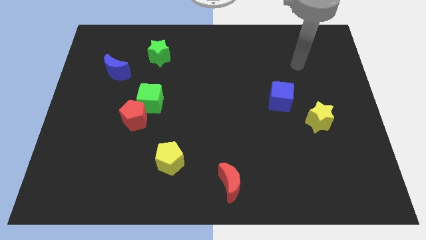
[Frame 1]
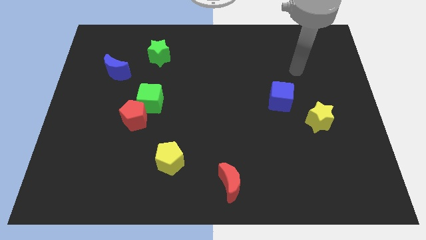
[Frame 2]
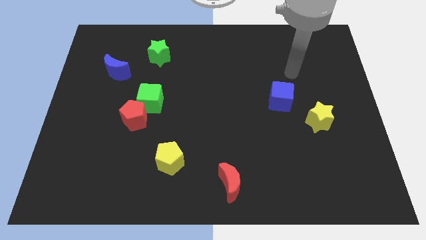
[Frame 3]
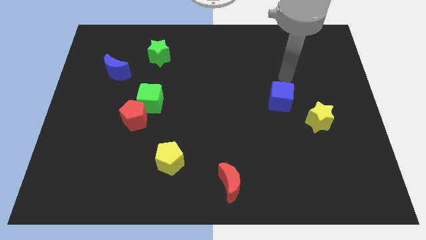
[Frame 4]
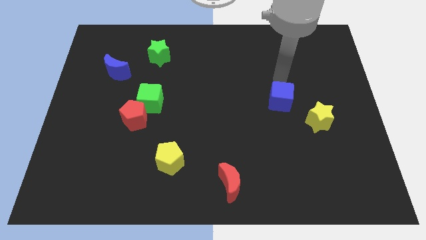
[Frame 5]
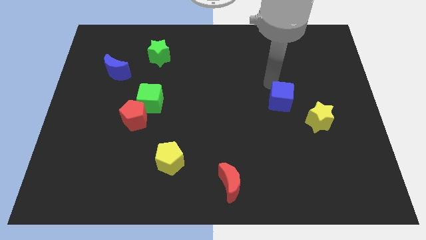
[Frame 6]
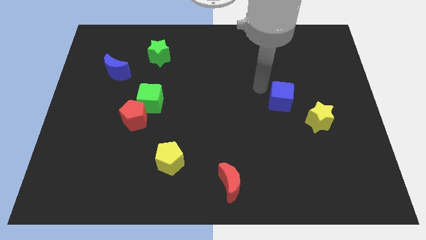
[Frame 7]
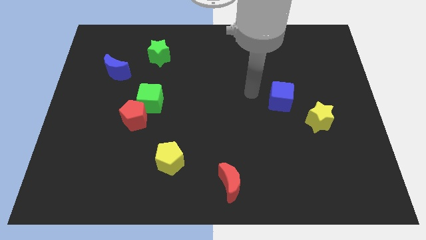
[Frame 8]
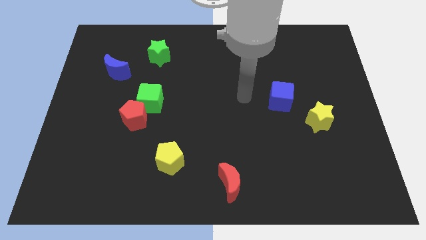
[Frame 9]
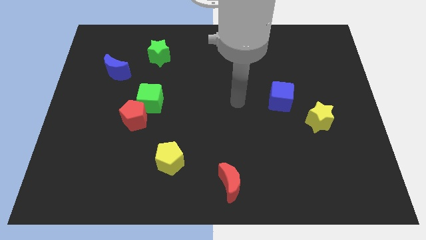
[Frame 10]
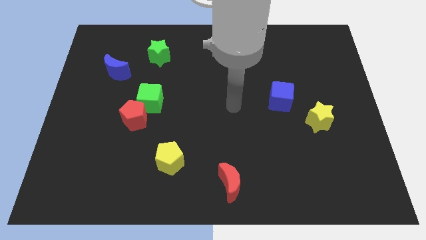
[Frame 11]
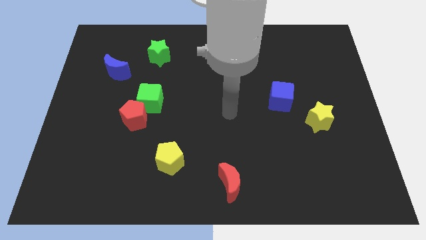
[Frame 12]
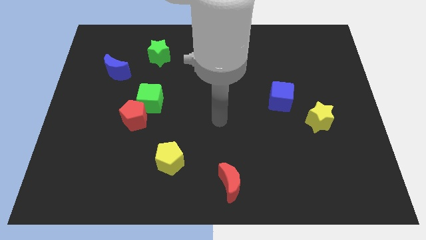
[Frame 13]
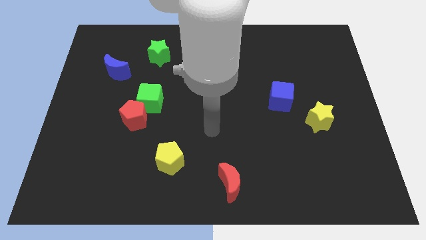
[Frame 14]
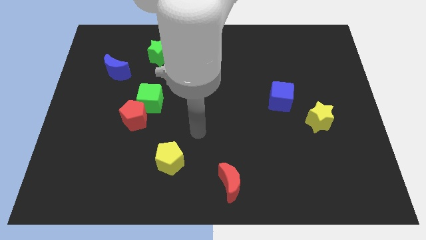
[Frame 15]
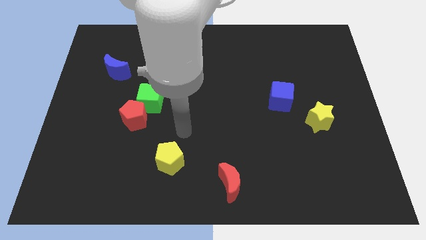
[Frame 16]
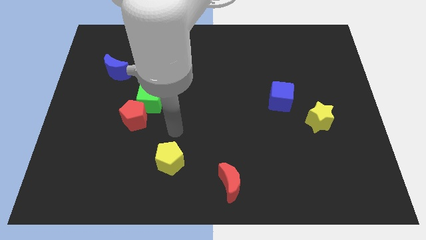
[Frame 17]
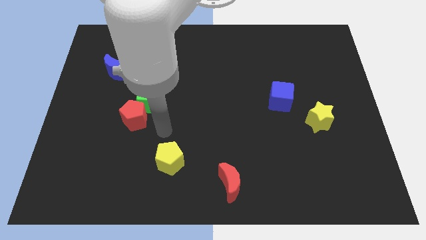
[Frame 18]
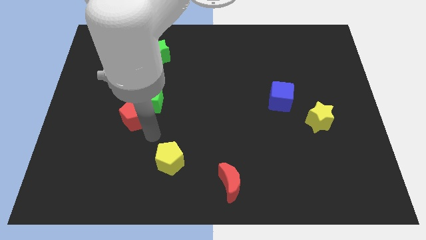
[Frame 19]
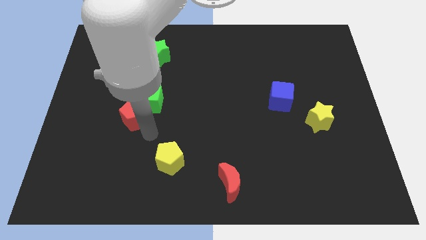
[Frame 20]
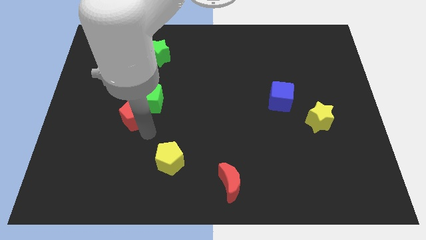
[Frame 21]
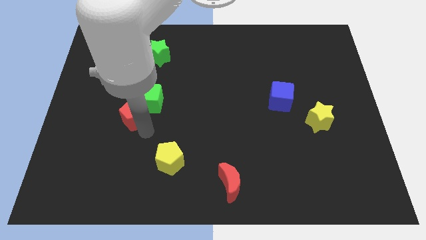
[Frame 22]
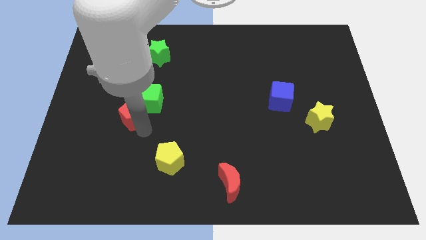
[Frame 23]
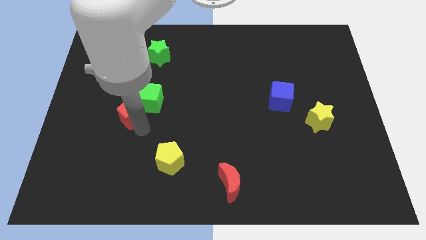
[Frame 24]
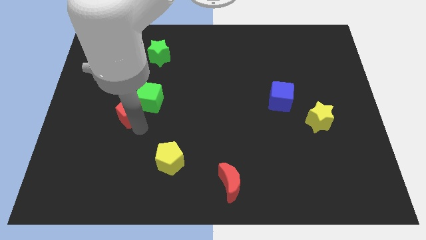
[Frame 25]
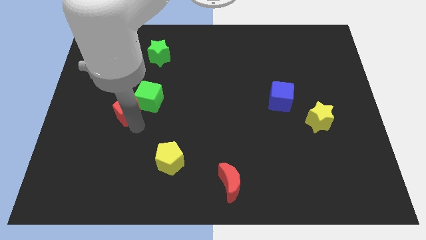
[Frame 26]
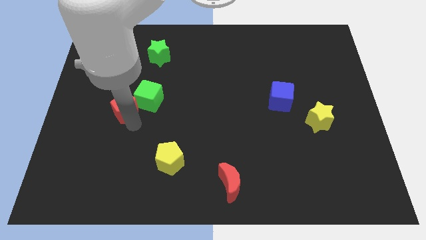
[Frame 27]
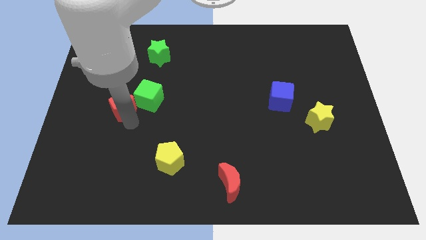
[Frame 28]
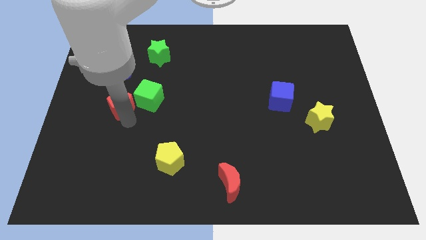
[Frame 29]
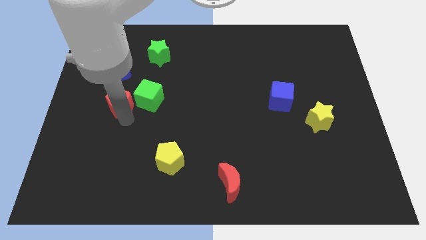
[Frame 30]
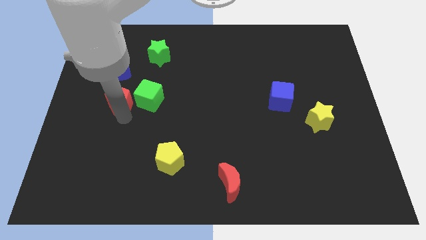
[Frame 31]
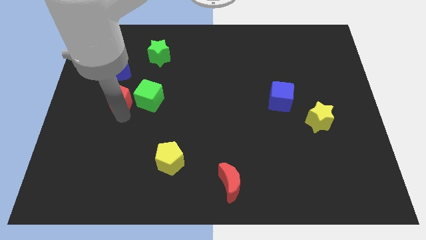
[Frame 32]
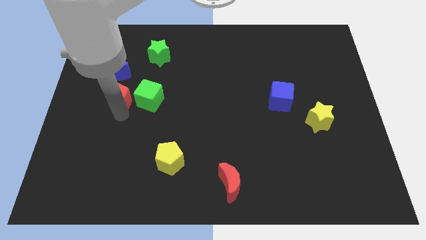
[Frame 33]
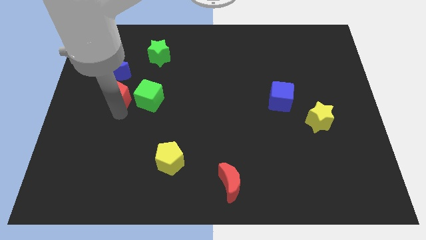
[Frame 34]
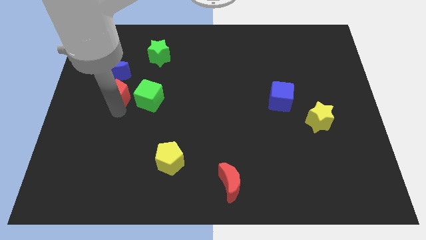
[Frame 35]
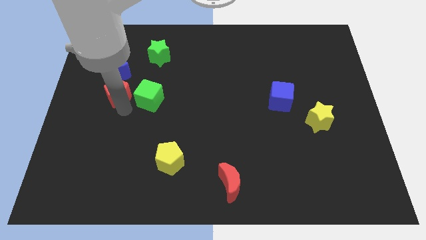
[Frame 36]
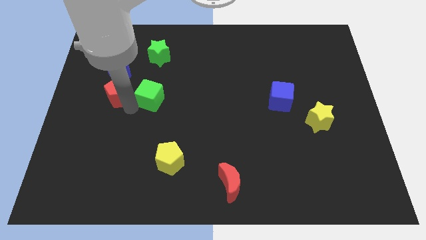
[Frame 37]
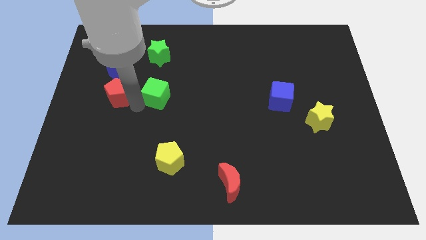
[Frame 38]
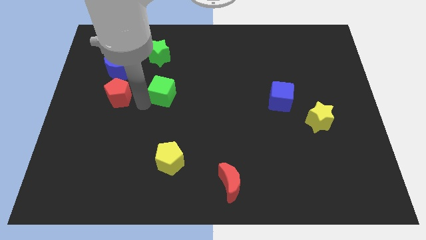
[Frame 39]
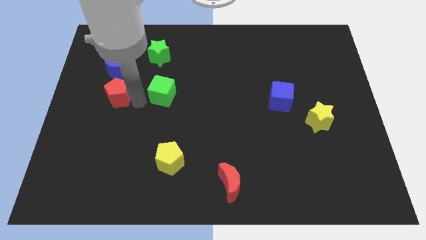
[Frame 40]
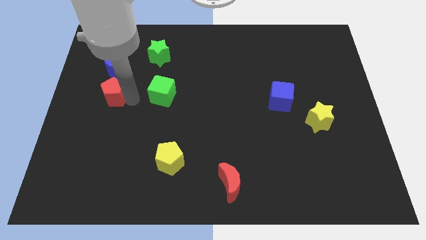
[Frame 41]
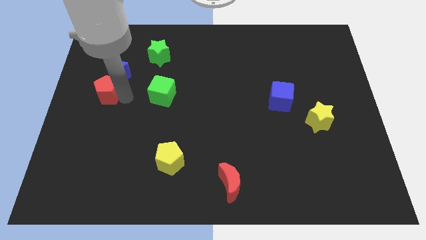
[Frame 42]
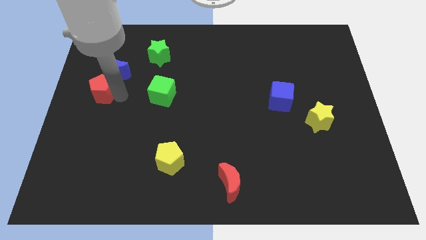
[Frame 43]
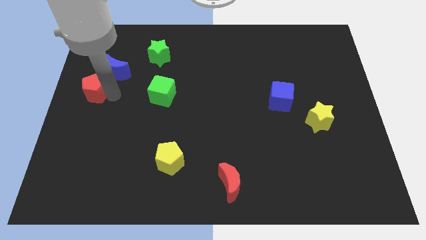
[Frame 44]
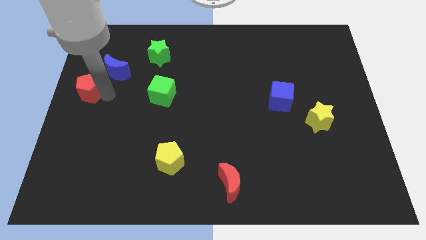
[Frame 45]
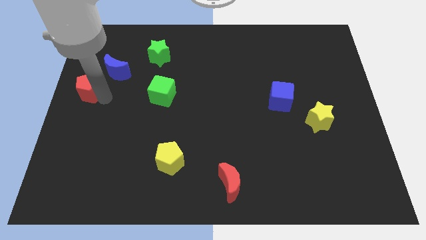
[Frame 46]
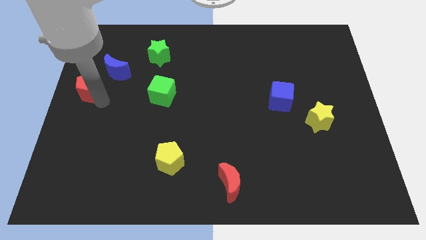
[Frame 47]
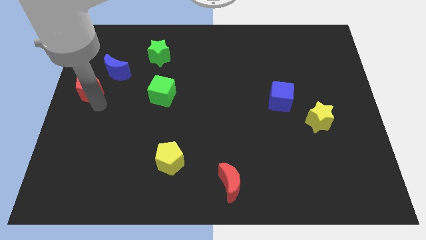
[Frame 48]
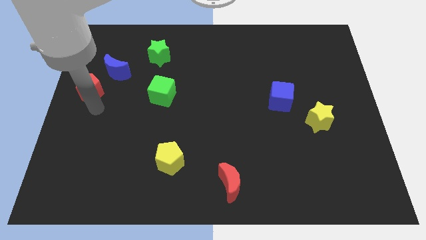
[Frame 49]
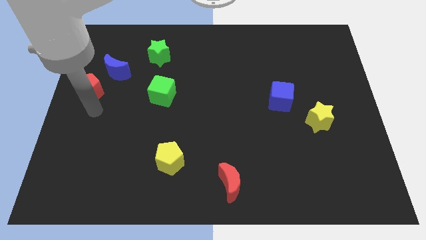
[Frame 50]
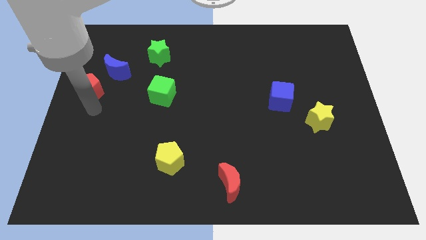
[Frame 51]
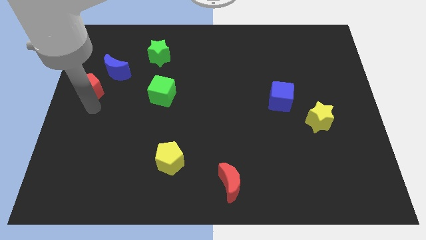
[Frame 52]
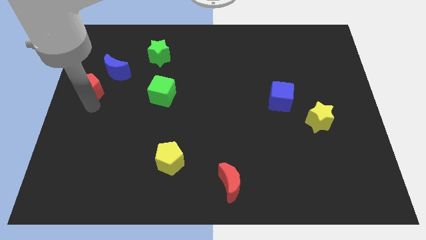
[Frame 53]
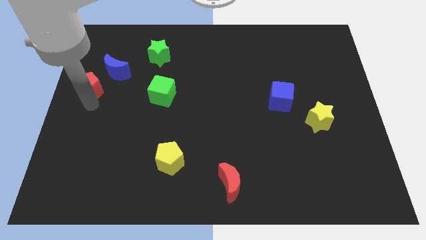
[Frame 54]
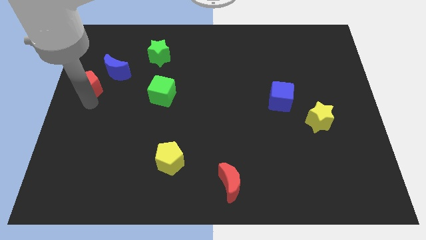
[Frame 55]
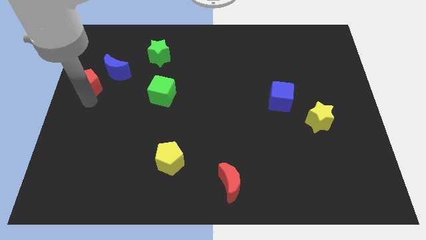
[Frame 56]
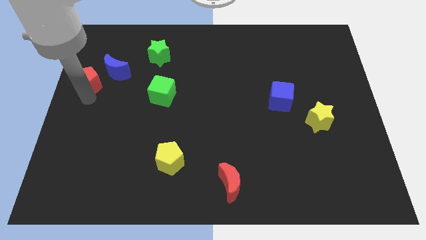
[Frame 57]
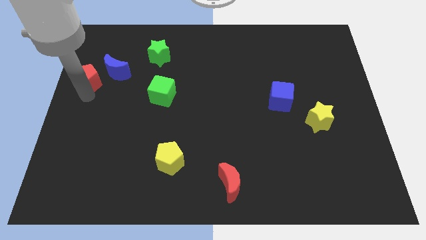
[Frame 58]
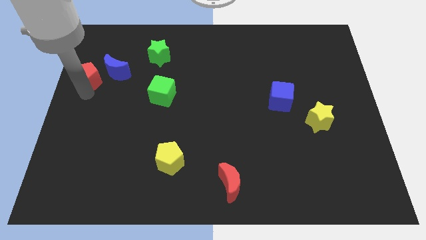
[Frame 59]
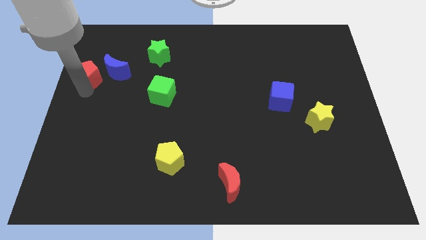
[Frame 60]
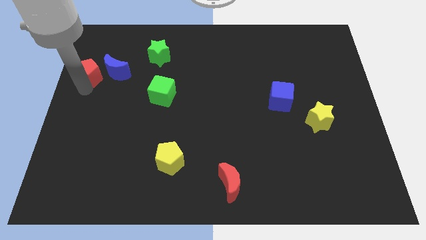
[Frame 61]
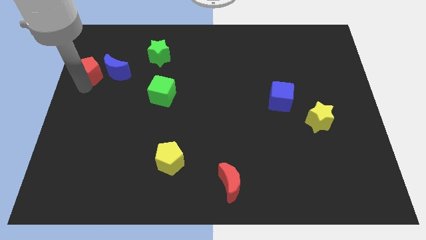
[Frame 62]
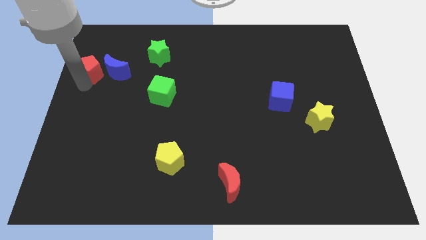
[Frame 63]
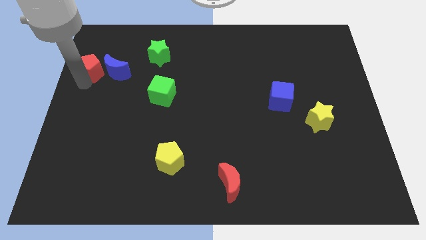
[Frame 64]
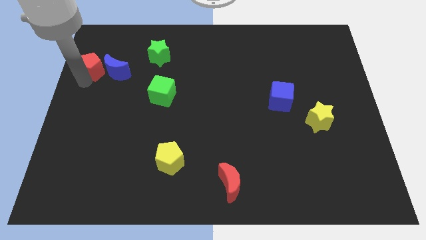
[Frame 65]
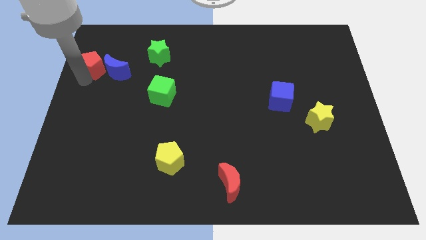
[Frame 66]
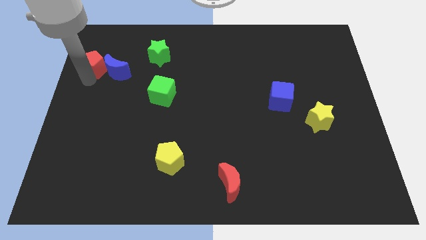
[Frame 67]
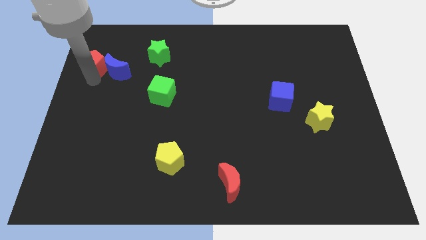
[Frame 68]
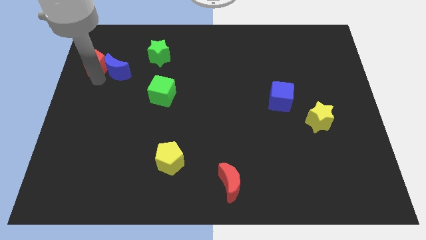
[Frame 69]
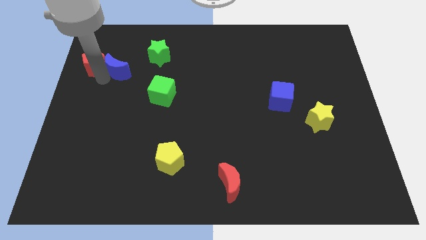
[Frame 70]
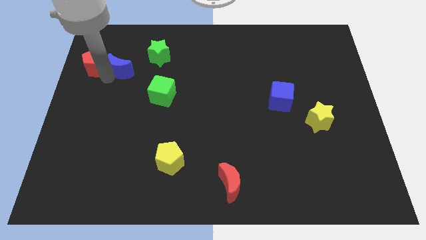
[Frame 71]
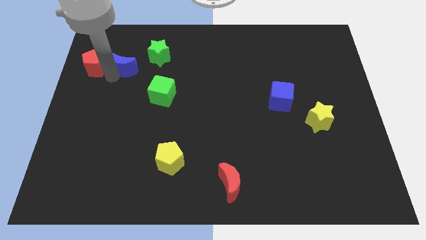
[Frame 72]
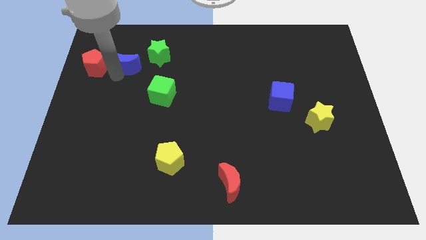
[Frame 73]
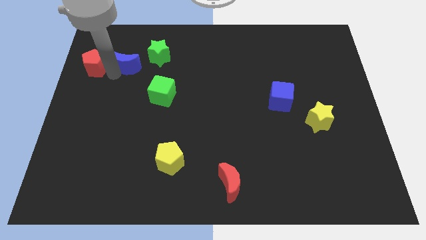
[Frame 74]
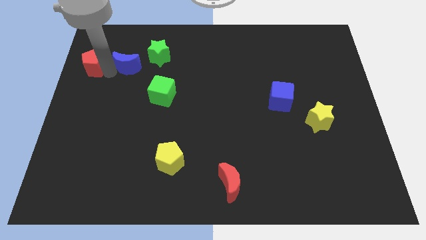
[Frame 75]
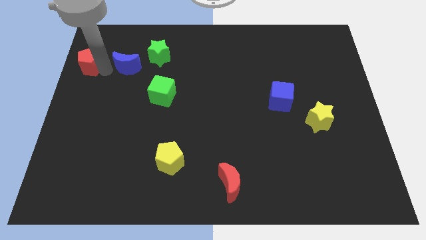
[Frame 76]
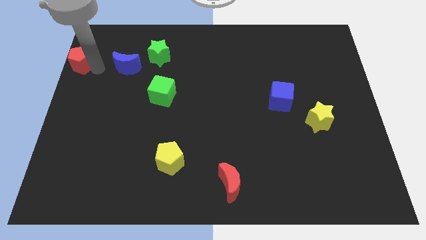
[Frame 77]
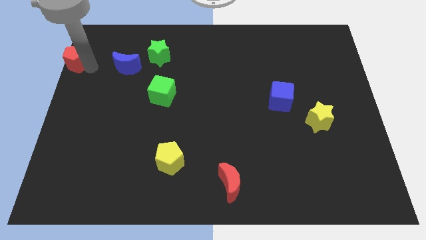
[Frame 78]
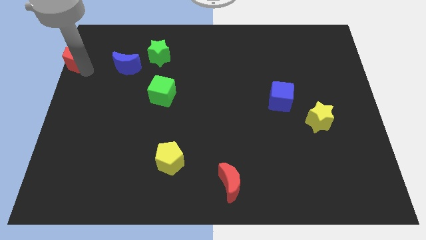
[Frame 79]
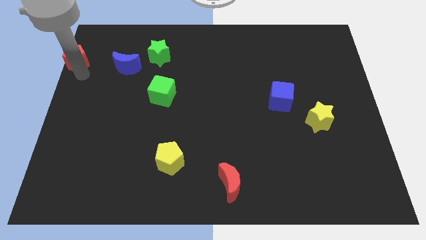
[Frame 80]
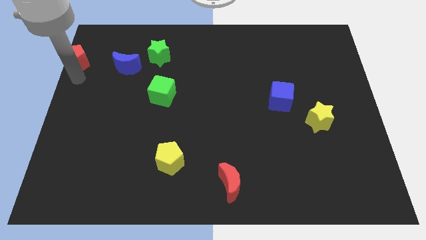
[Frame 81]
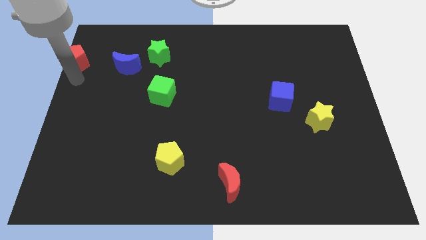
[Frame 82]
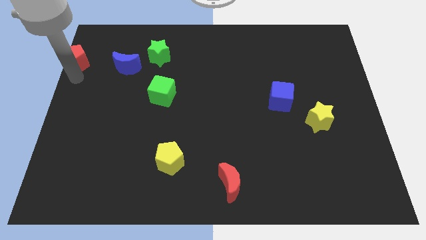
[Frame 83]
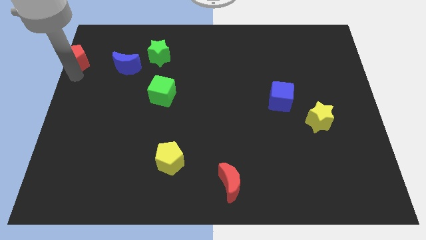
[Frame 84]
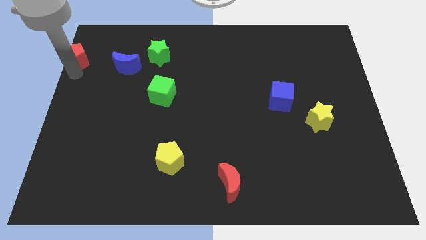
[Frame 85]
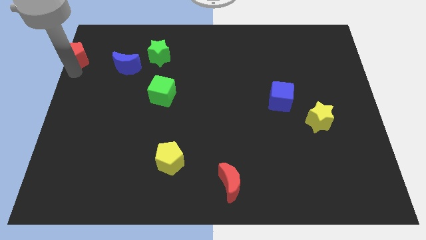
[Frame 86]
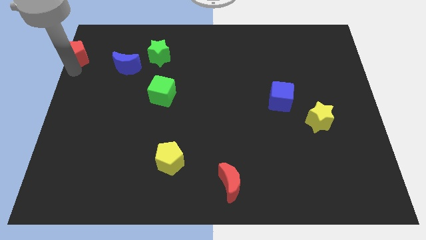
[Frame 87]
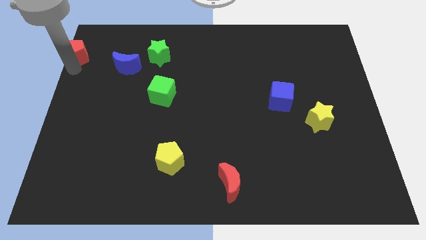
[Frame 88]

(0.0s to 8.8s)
move the red pentagon to the upper left corner
